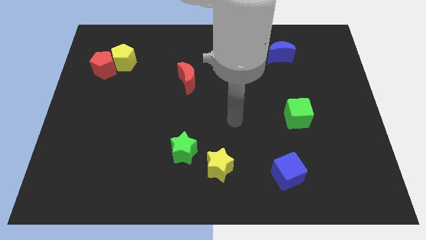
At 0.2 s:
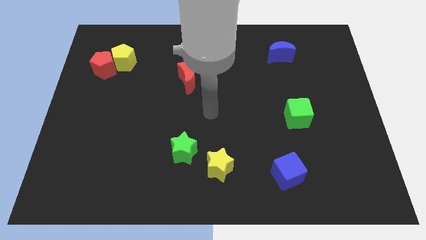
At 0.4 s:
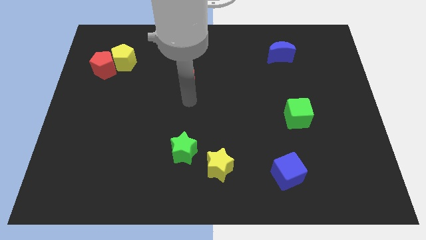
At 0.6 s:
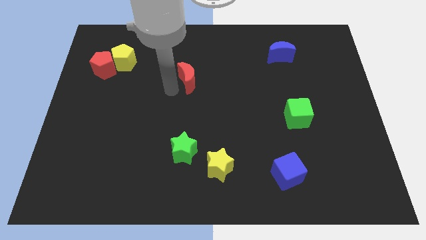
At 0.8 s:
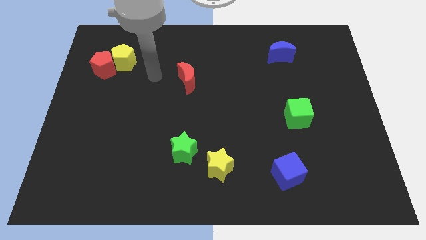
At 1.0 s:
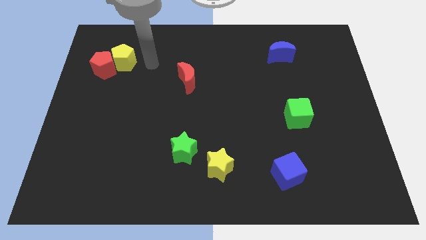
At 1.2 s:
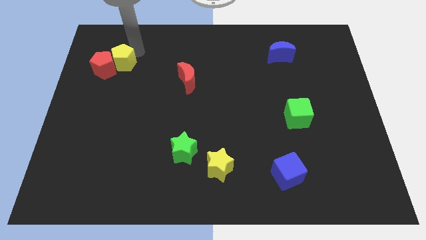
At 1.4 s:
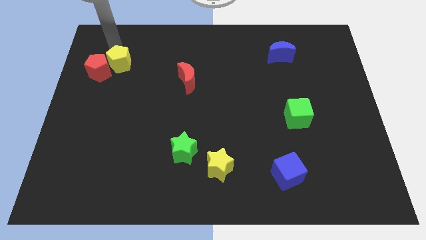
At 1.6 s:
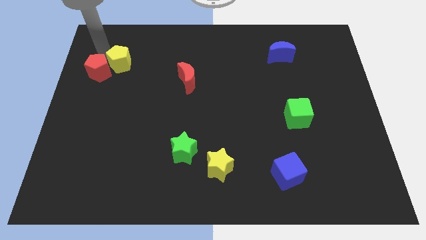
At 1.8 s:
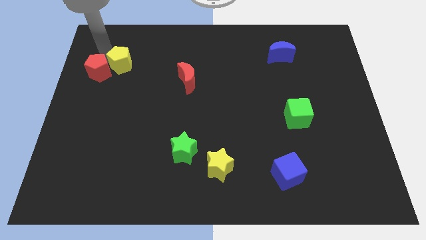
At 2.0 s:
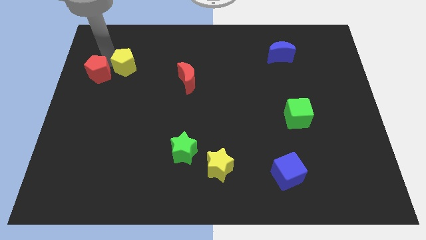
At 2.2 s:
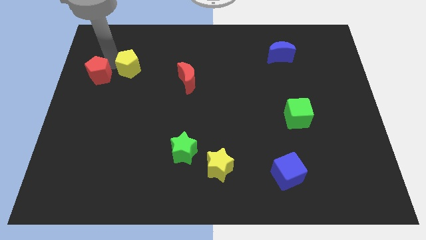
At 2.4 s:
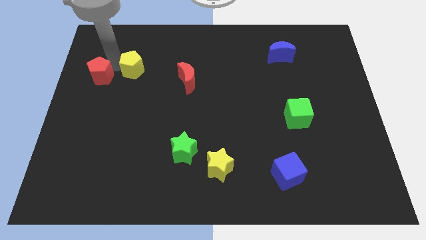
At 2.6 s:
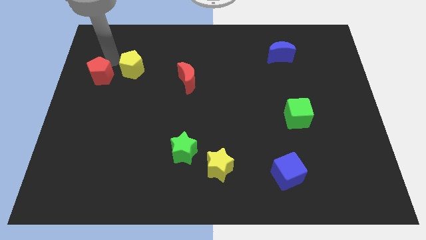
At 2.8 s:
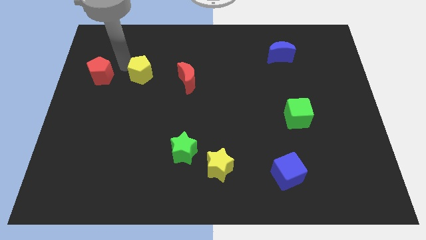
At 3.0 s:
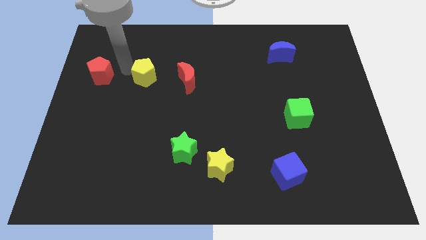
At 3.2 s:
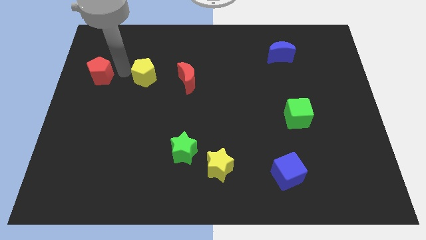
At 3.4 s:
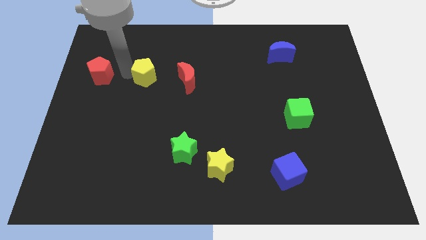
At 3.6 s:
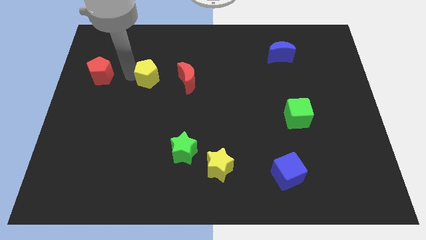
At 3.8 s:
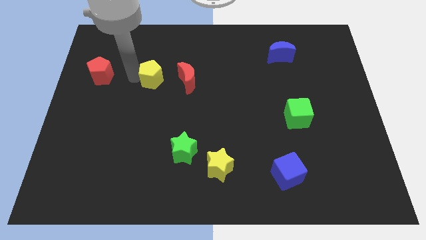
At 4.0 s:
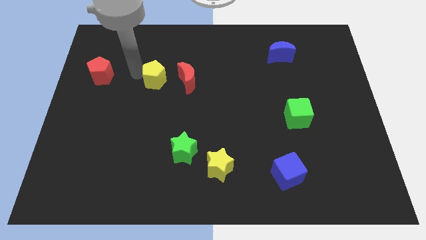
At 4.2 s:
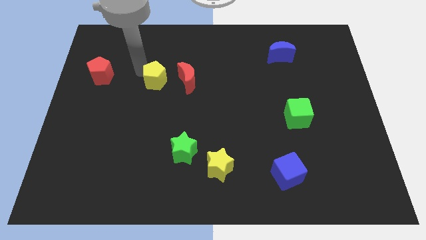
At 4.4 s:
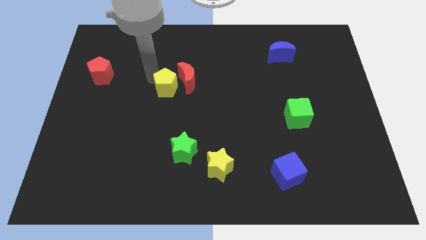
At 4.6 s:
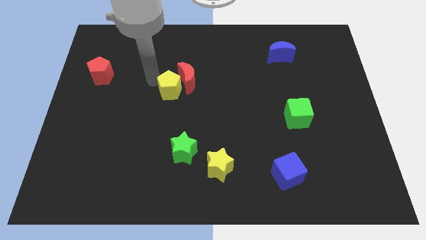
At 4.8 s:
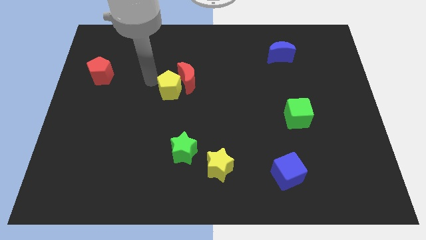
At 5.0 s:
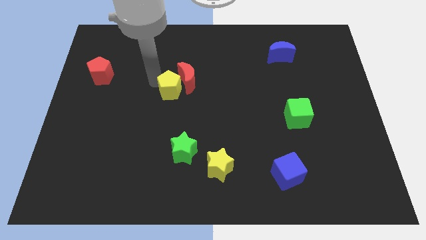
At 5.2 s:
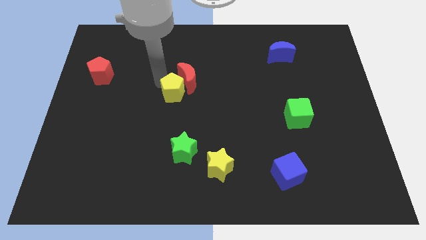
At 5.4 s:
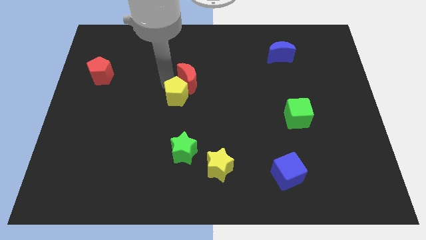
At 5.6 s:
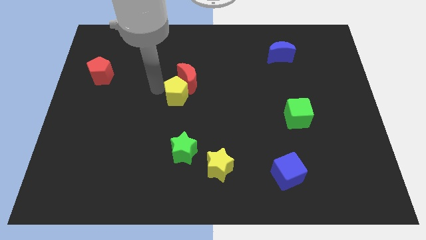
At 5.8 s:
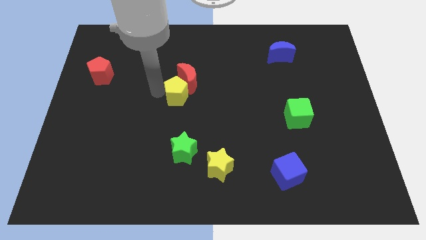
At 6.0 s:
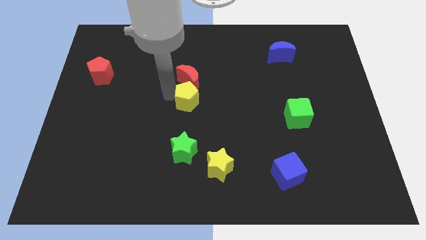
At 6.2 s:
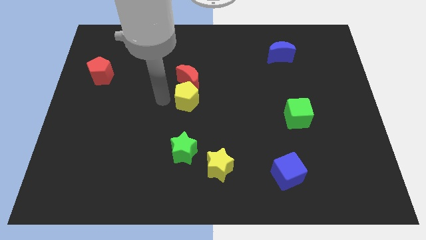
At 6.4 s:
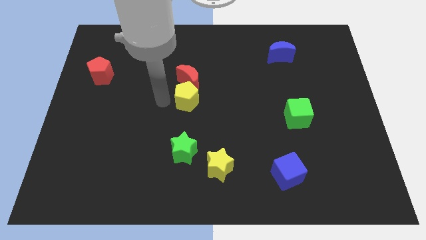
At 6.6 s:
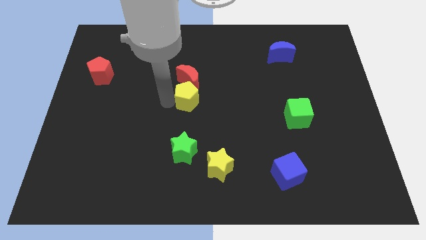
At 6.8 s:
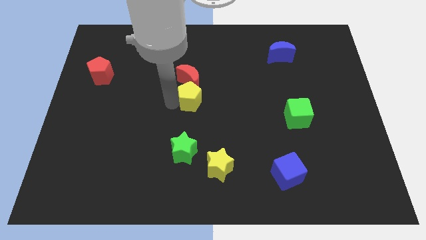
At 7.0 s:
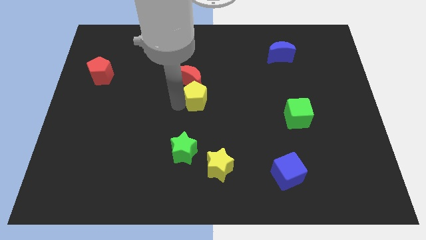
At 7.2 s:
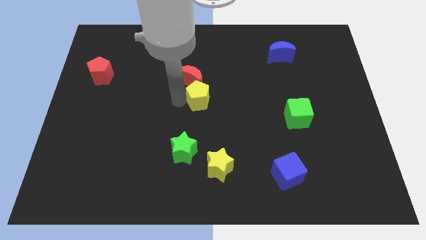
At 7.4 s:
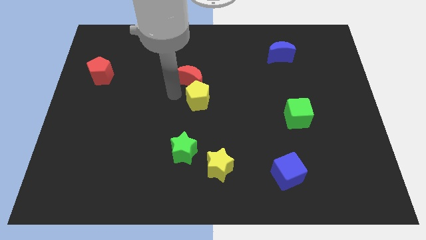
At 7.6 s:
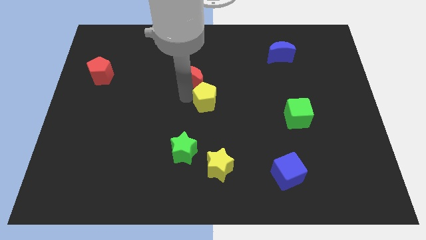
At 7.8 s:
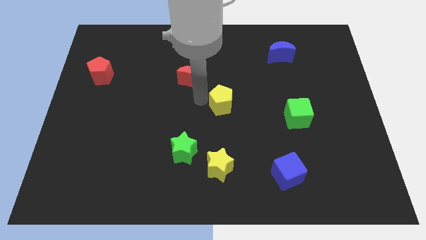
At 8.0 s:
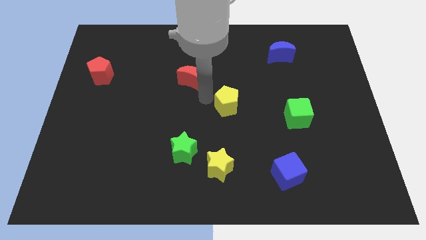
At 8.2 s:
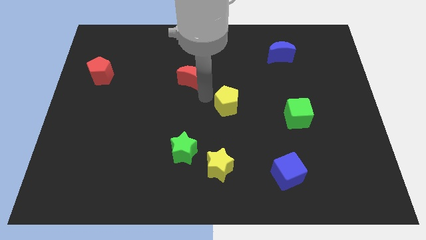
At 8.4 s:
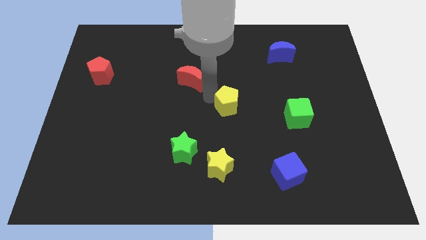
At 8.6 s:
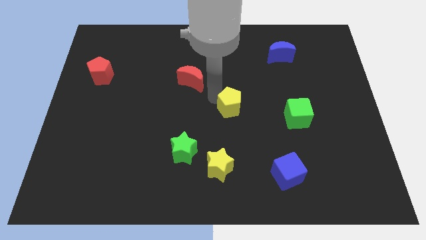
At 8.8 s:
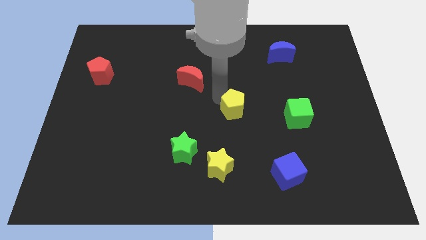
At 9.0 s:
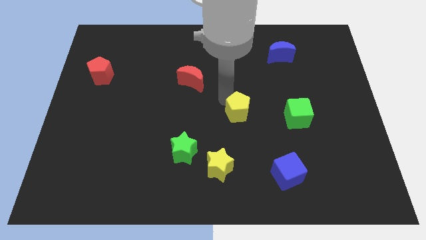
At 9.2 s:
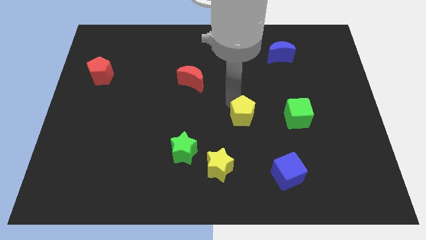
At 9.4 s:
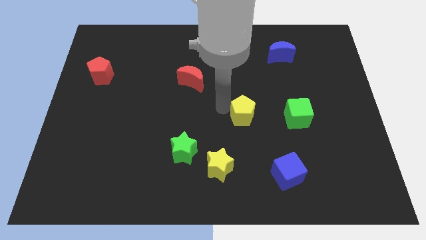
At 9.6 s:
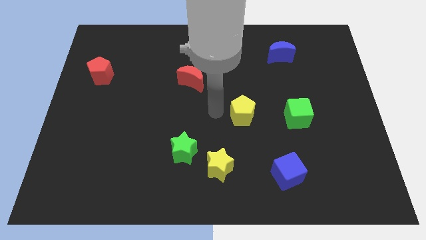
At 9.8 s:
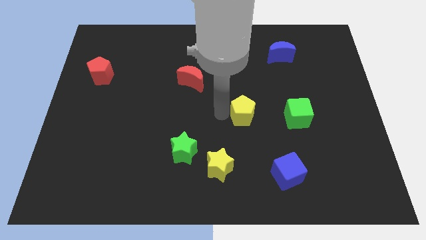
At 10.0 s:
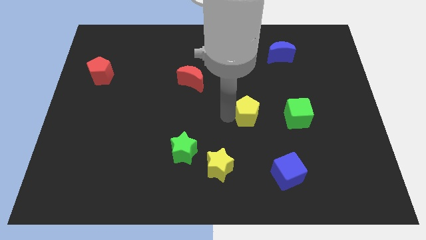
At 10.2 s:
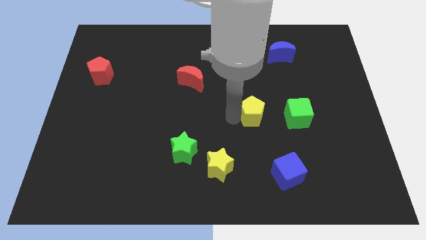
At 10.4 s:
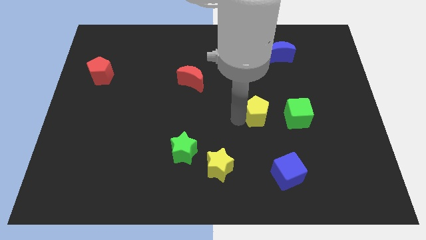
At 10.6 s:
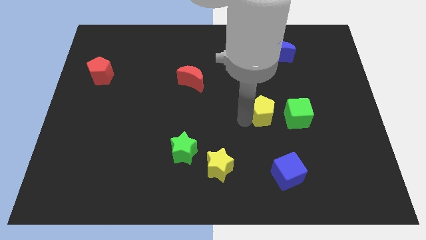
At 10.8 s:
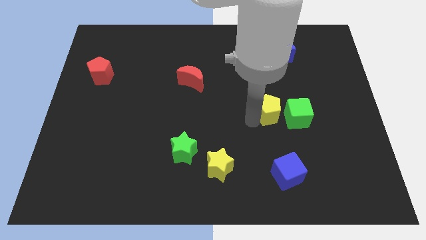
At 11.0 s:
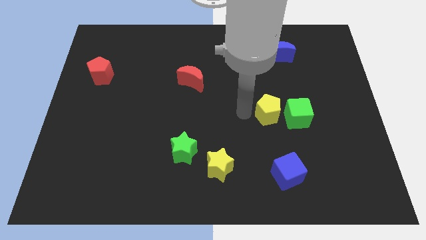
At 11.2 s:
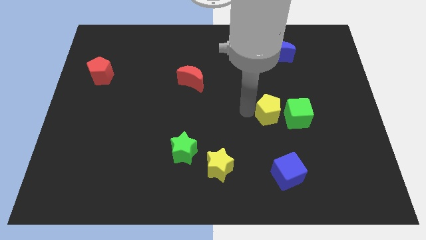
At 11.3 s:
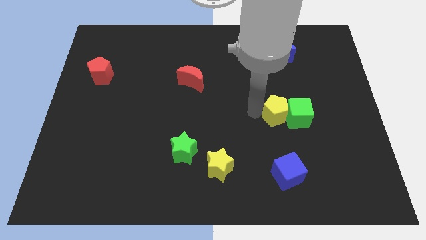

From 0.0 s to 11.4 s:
push the yellow pentagon next to the green cube
